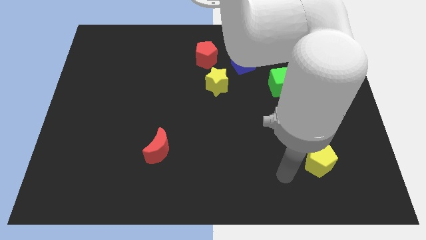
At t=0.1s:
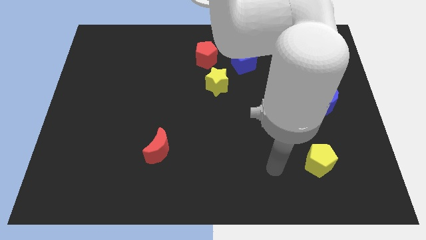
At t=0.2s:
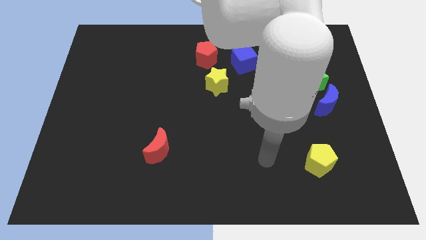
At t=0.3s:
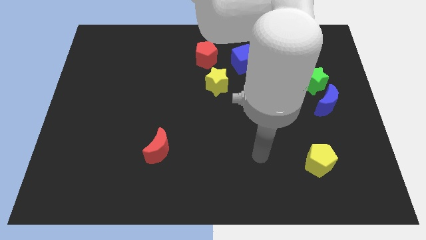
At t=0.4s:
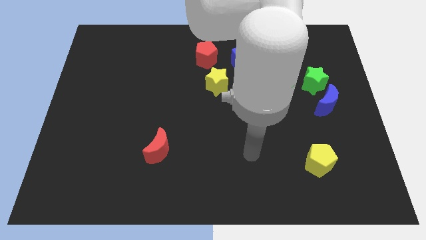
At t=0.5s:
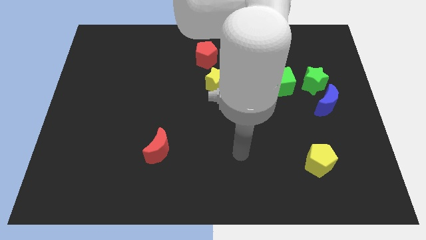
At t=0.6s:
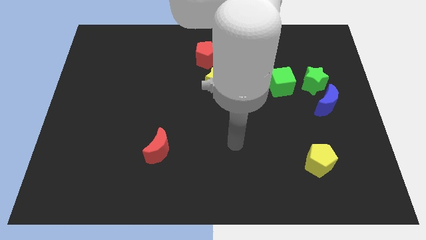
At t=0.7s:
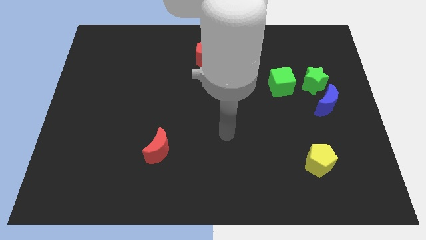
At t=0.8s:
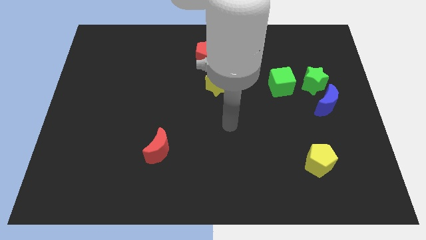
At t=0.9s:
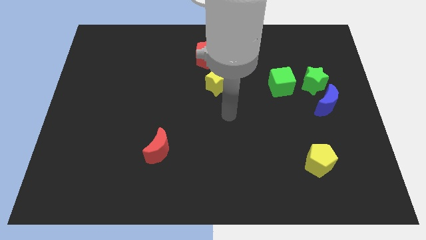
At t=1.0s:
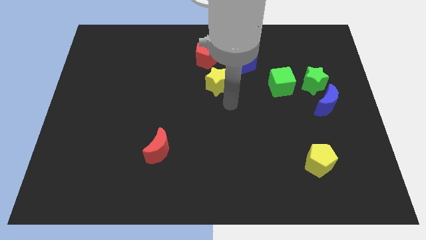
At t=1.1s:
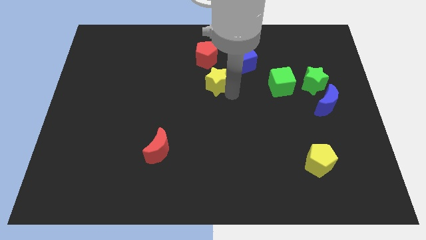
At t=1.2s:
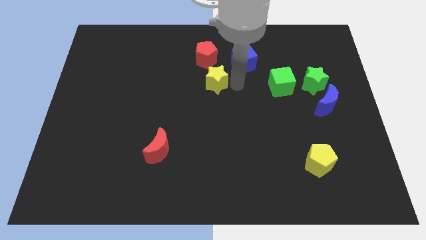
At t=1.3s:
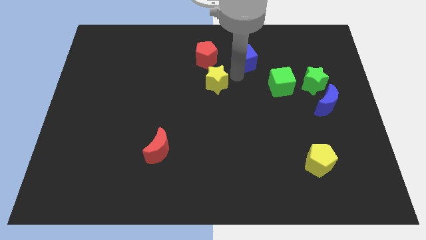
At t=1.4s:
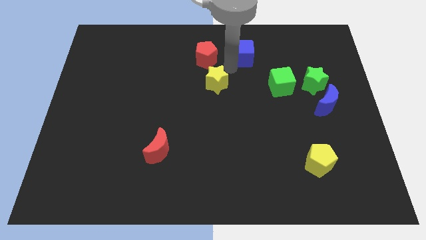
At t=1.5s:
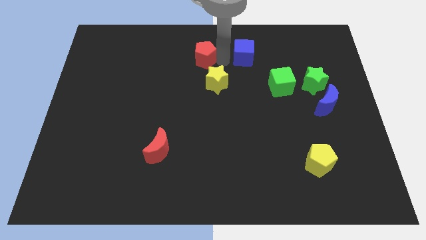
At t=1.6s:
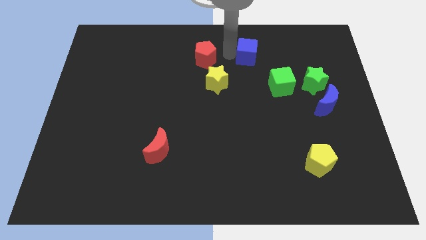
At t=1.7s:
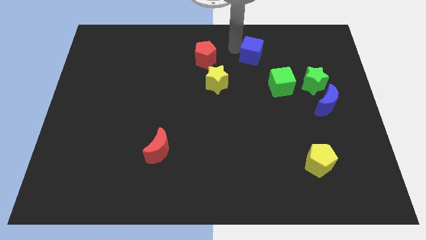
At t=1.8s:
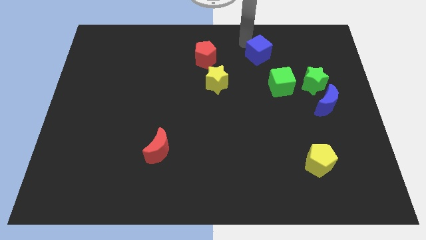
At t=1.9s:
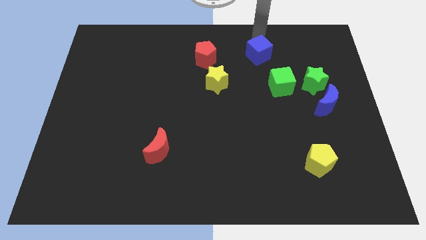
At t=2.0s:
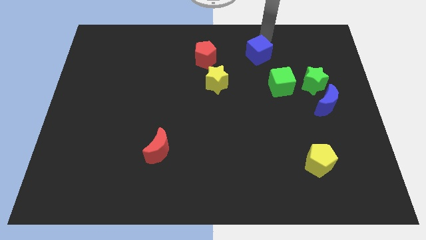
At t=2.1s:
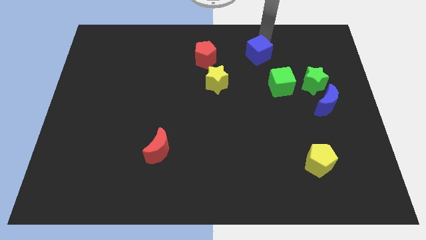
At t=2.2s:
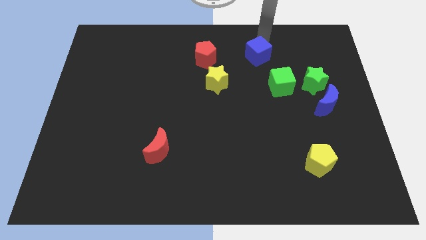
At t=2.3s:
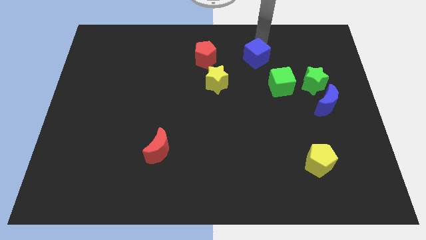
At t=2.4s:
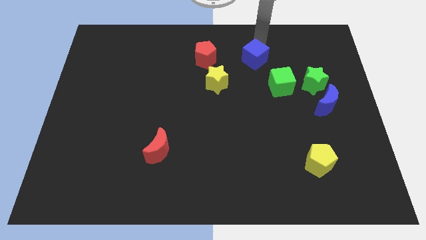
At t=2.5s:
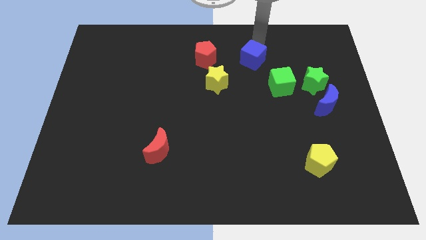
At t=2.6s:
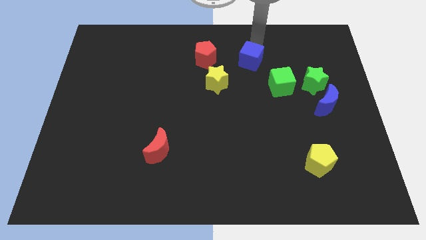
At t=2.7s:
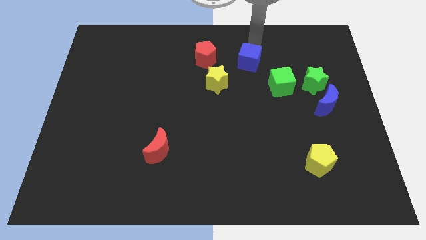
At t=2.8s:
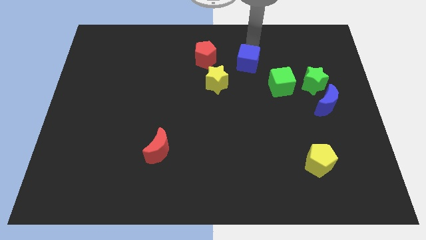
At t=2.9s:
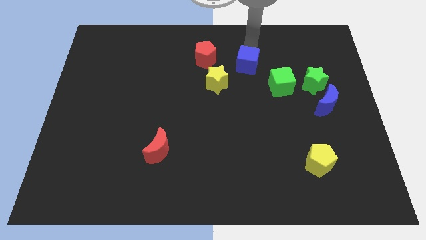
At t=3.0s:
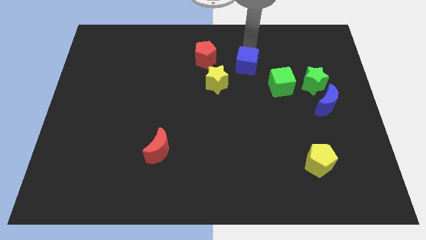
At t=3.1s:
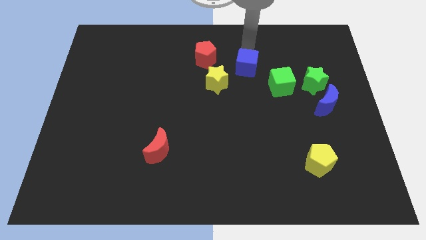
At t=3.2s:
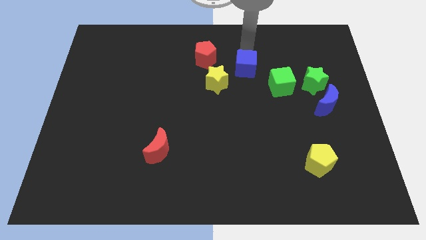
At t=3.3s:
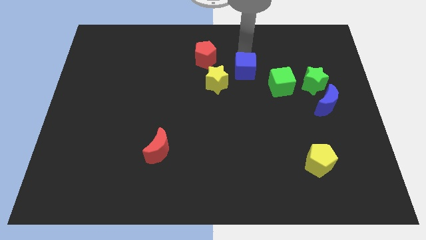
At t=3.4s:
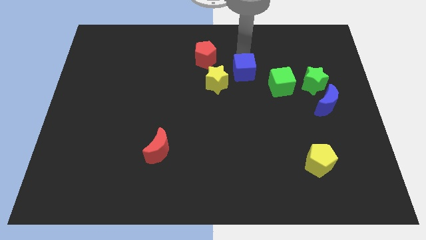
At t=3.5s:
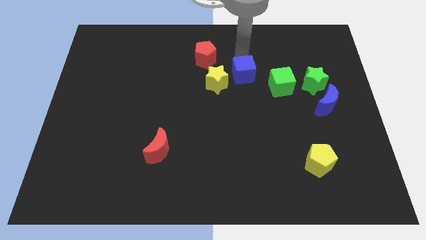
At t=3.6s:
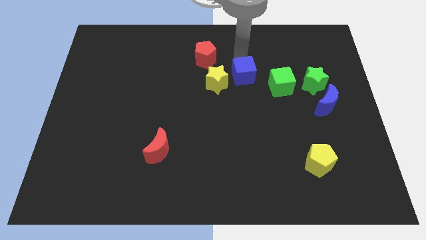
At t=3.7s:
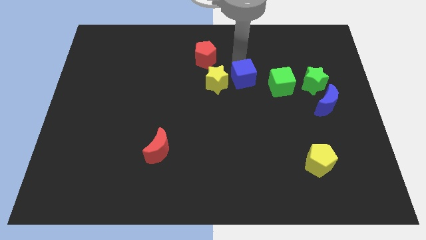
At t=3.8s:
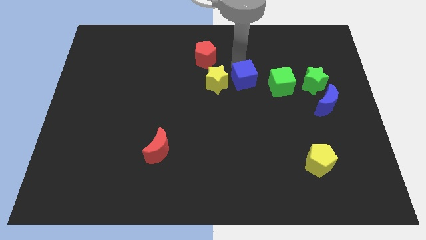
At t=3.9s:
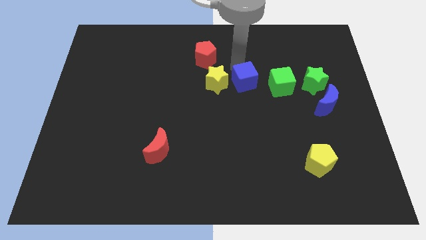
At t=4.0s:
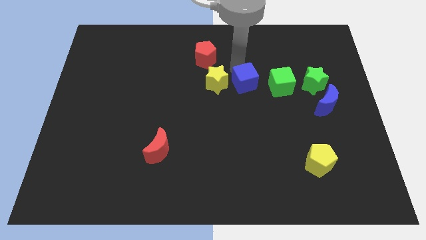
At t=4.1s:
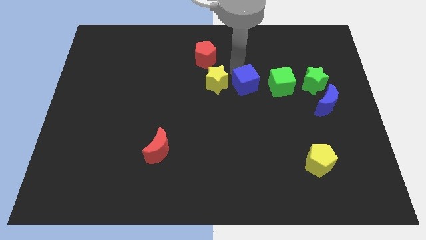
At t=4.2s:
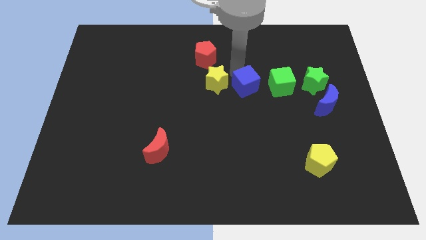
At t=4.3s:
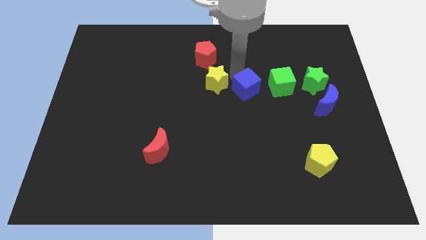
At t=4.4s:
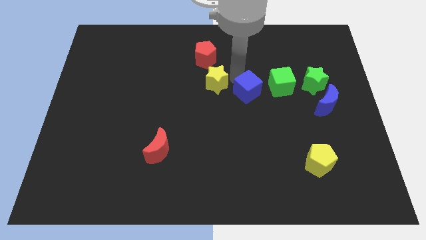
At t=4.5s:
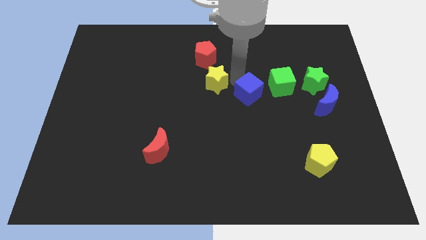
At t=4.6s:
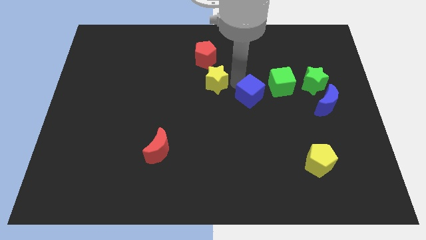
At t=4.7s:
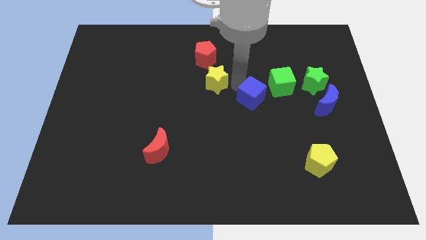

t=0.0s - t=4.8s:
move the blue cube diagonally down and to the right a little bit

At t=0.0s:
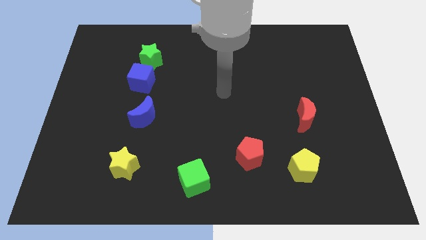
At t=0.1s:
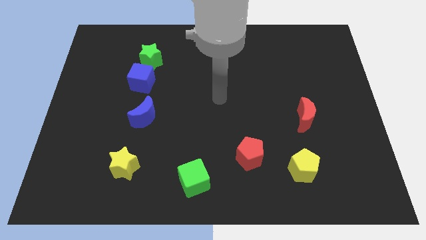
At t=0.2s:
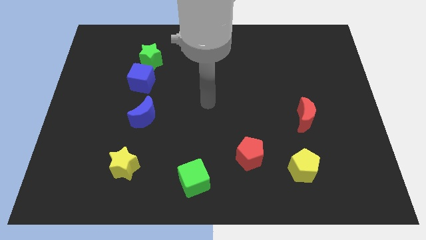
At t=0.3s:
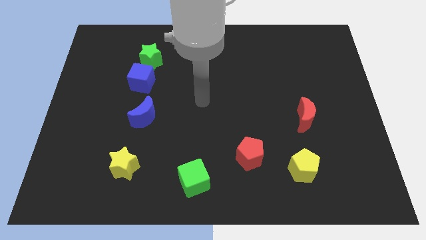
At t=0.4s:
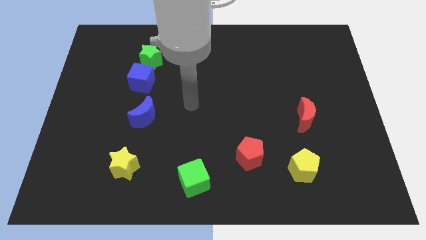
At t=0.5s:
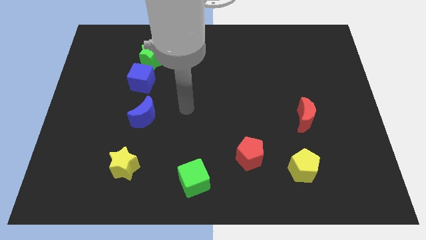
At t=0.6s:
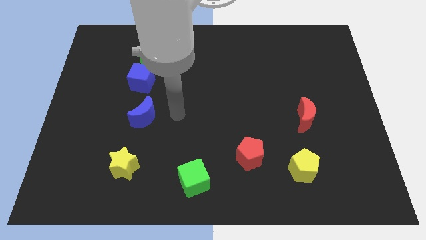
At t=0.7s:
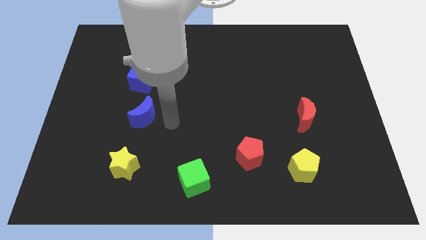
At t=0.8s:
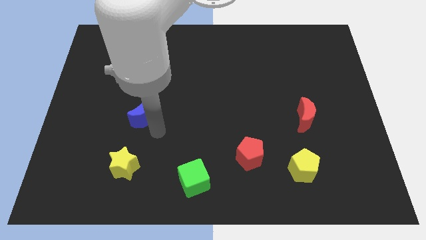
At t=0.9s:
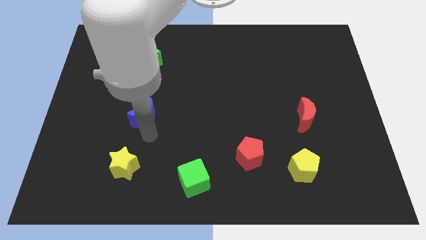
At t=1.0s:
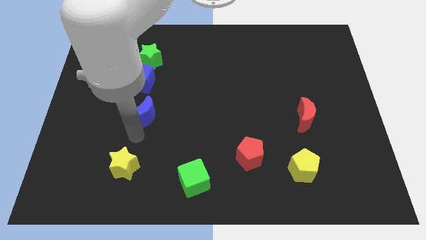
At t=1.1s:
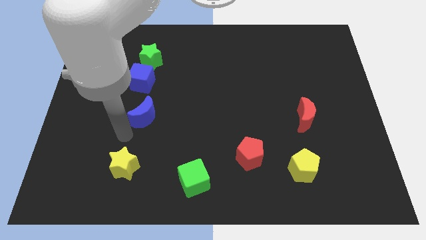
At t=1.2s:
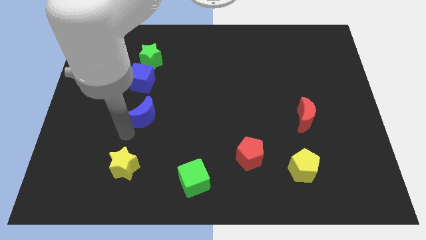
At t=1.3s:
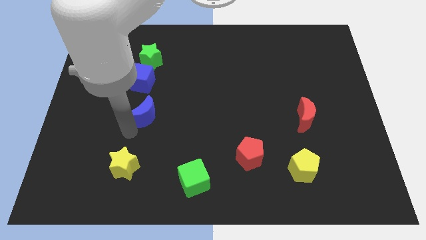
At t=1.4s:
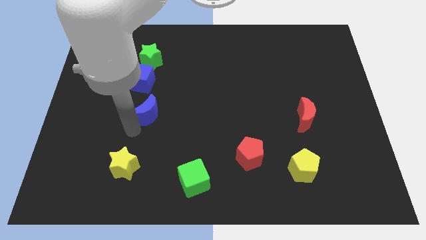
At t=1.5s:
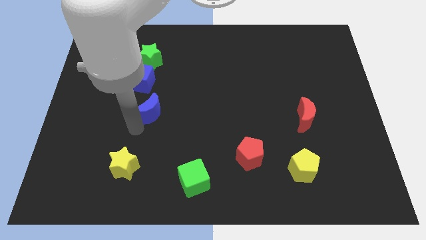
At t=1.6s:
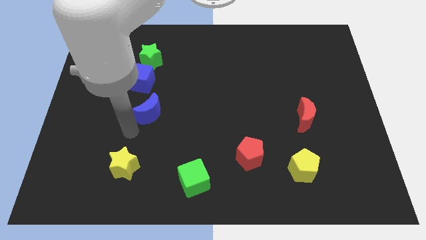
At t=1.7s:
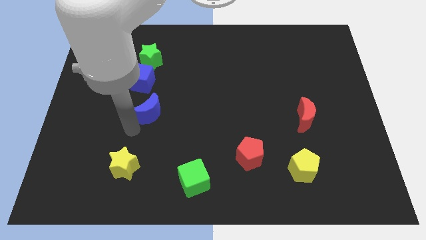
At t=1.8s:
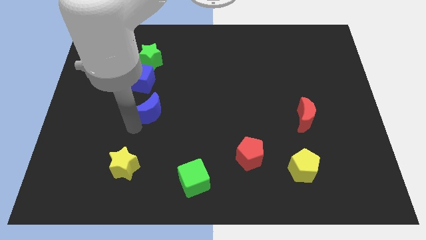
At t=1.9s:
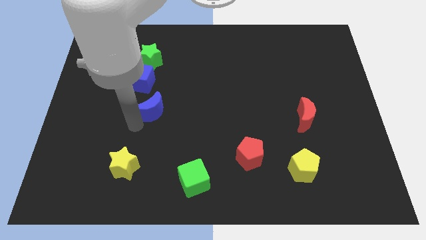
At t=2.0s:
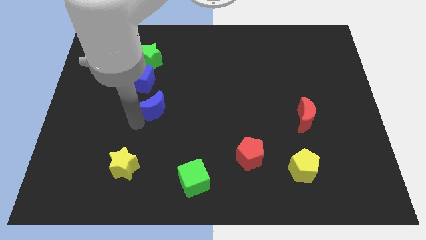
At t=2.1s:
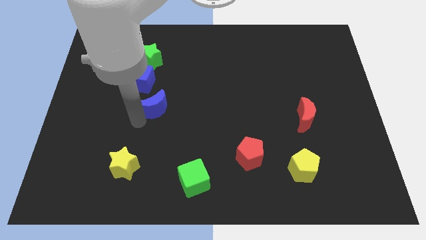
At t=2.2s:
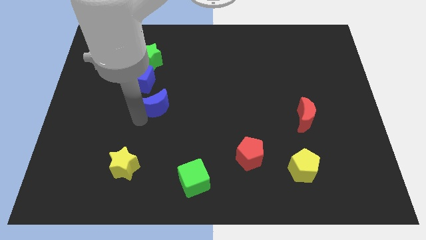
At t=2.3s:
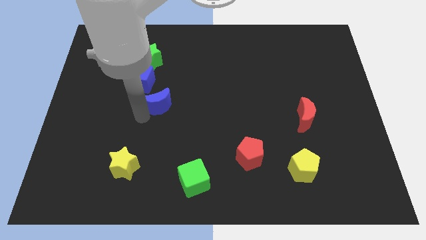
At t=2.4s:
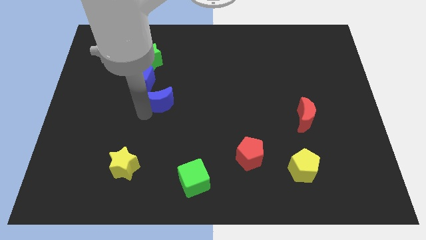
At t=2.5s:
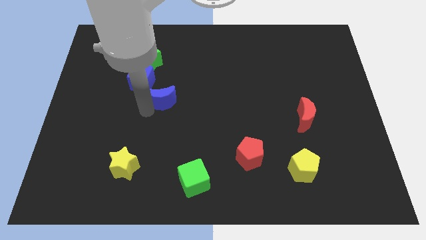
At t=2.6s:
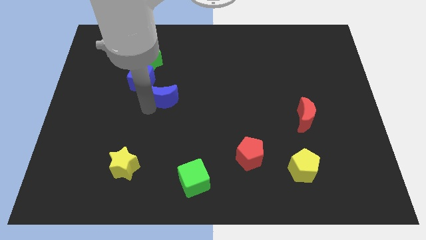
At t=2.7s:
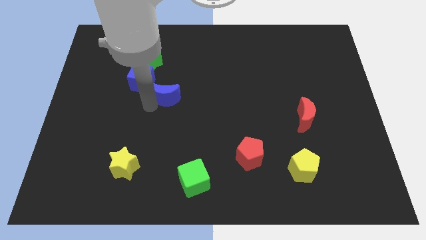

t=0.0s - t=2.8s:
slide the blue moon slightly up and right

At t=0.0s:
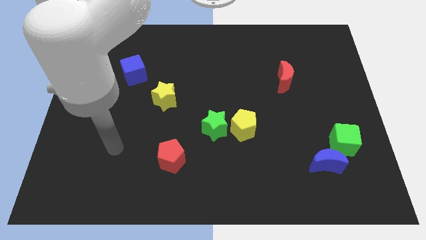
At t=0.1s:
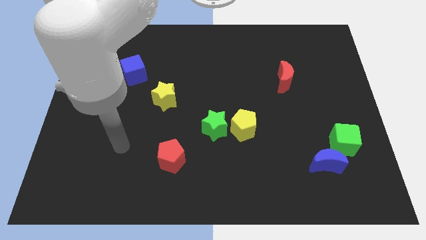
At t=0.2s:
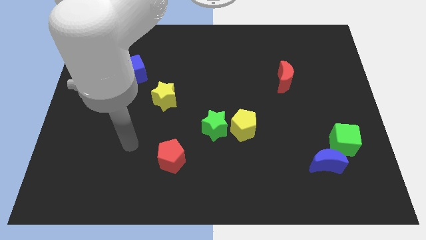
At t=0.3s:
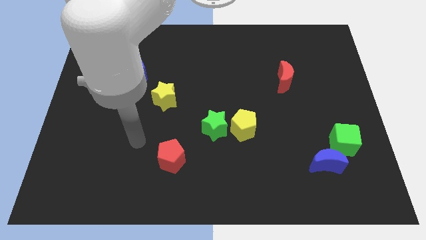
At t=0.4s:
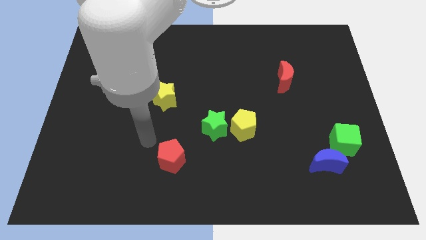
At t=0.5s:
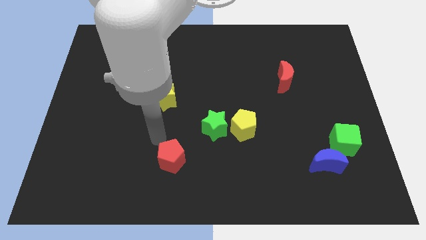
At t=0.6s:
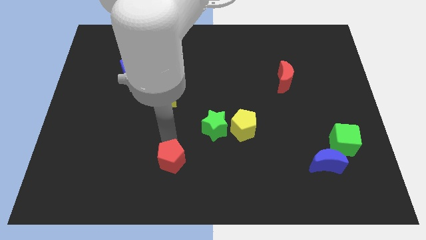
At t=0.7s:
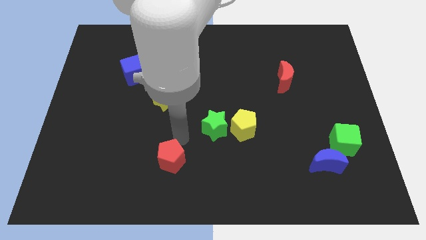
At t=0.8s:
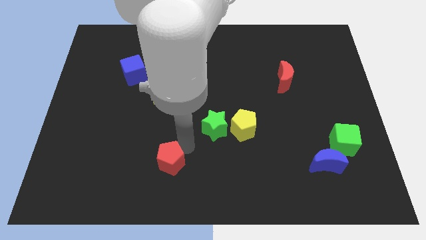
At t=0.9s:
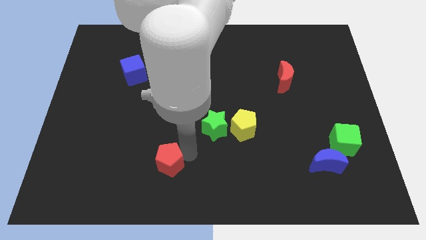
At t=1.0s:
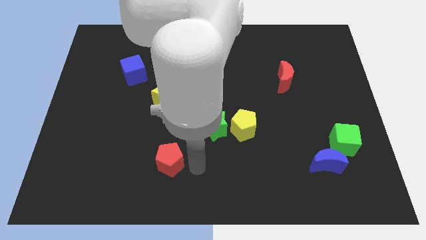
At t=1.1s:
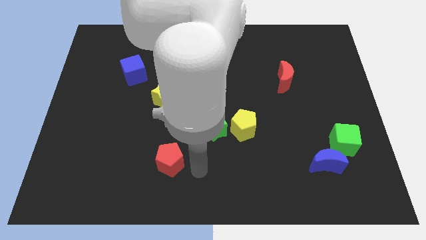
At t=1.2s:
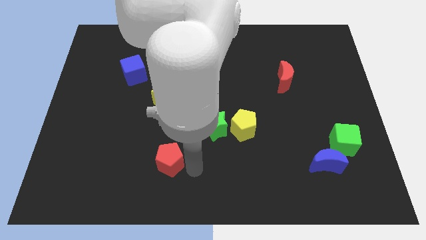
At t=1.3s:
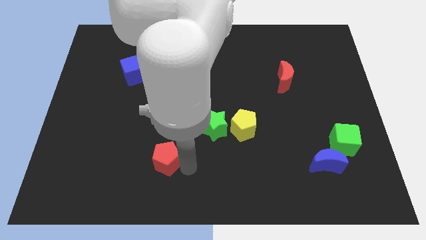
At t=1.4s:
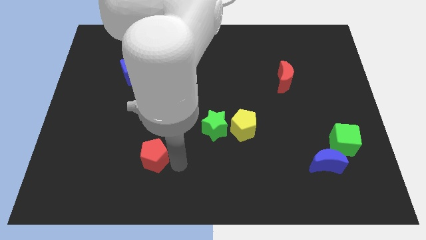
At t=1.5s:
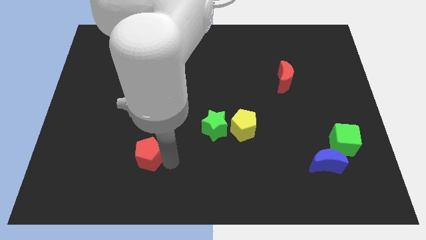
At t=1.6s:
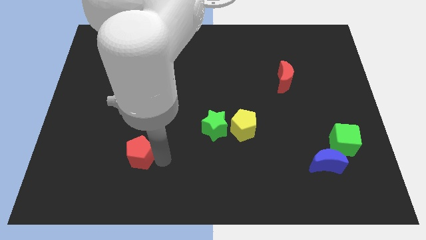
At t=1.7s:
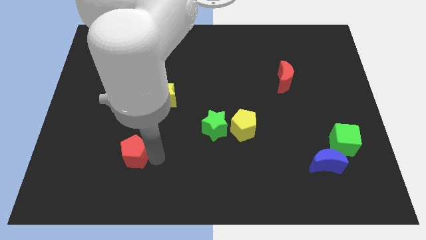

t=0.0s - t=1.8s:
push the red pentagon a bit left
